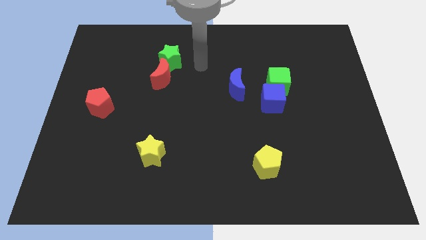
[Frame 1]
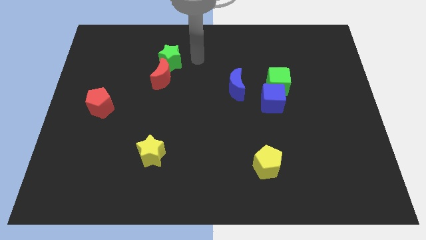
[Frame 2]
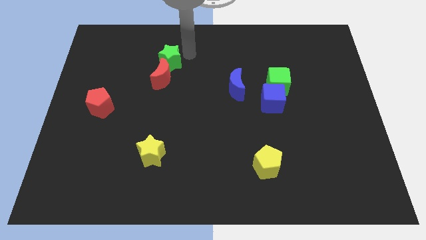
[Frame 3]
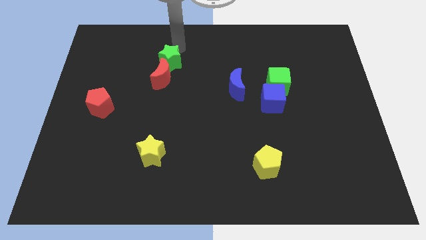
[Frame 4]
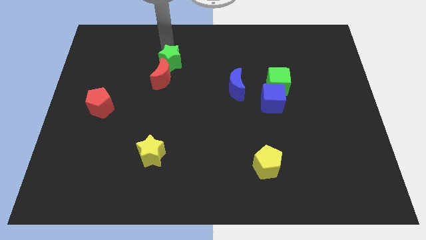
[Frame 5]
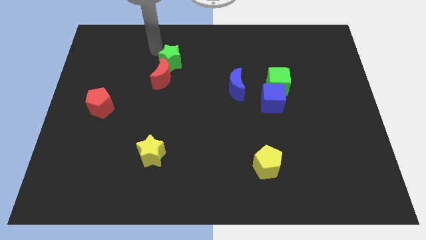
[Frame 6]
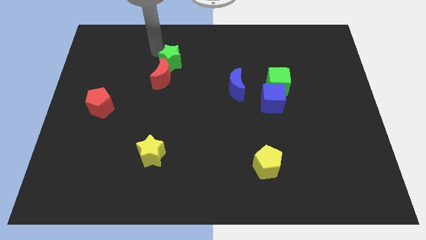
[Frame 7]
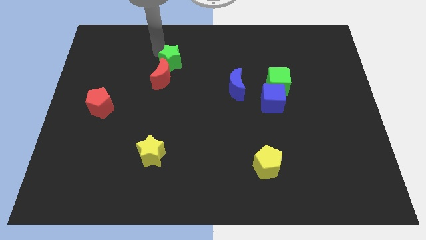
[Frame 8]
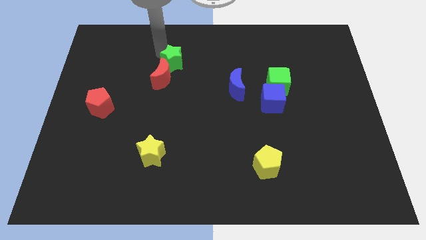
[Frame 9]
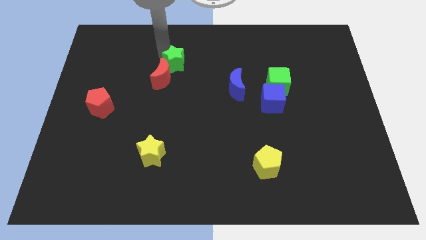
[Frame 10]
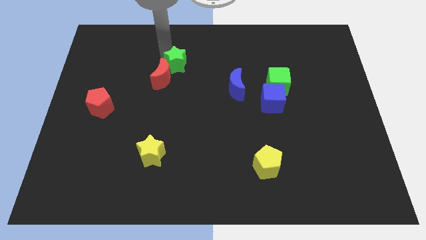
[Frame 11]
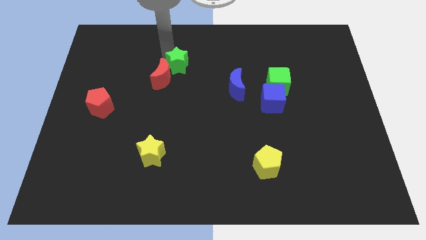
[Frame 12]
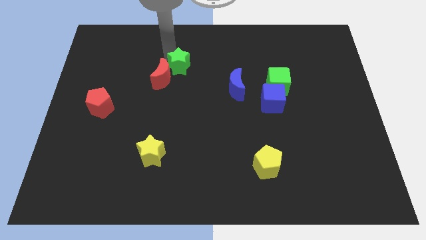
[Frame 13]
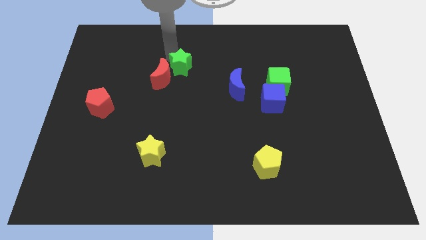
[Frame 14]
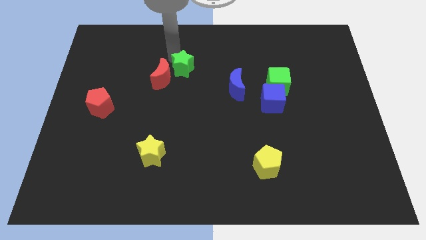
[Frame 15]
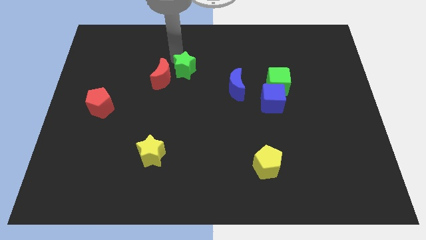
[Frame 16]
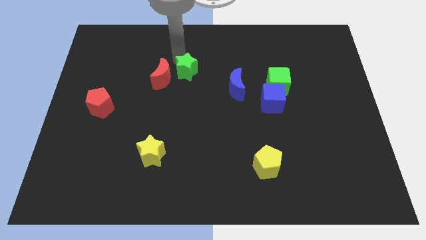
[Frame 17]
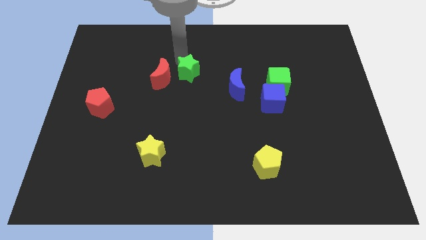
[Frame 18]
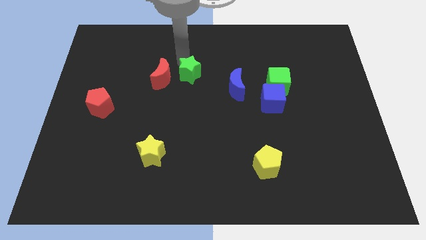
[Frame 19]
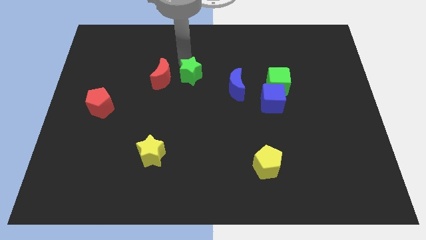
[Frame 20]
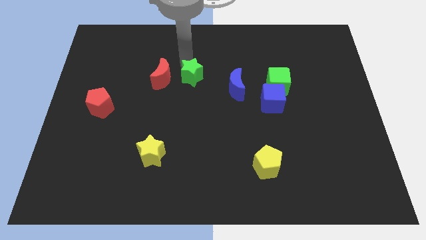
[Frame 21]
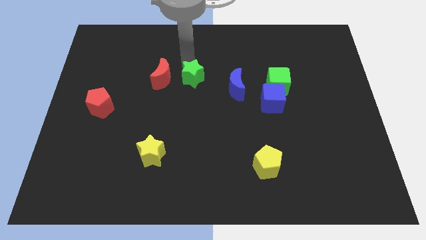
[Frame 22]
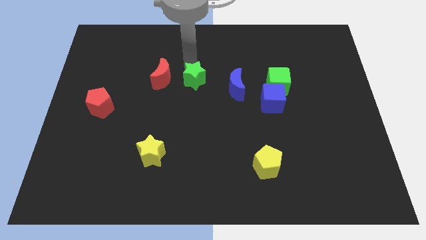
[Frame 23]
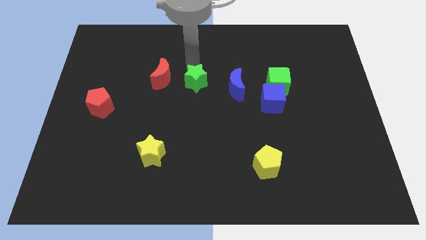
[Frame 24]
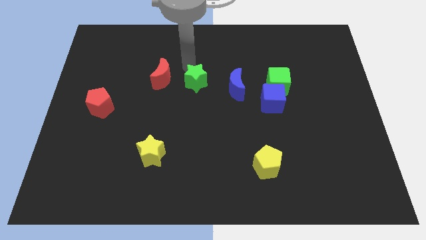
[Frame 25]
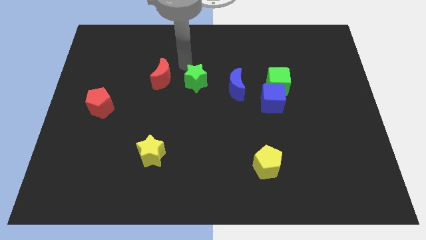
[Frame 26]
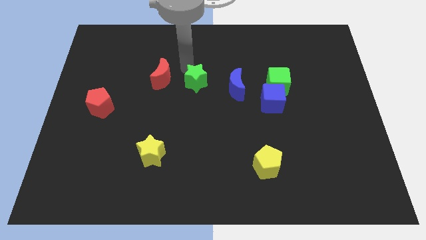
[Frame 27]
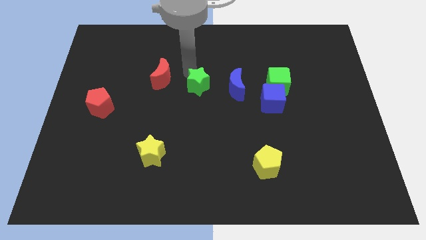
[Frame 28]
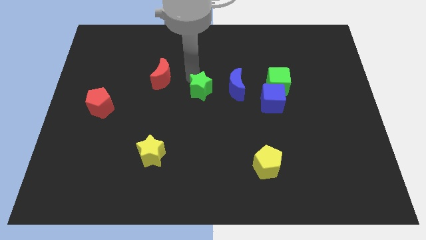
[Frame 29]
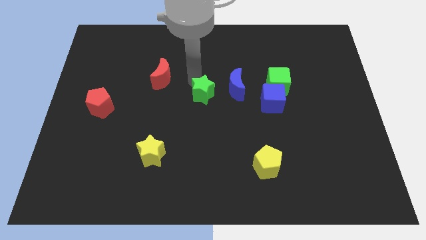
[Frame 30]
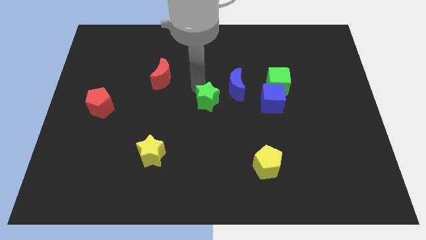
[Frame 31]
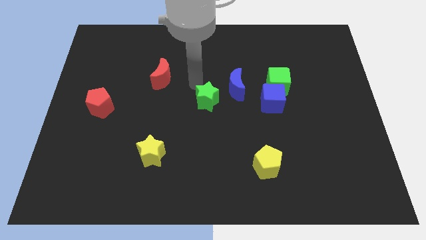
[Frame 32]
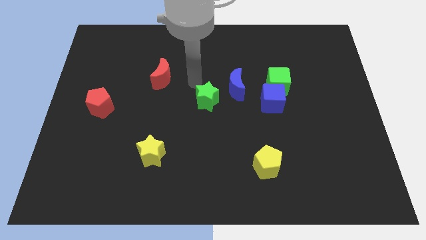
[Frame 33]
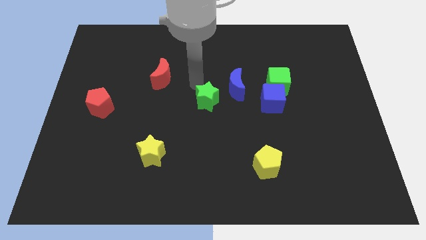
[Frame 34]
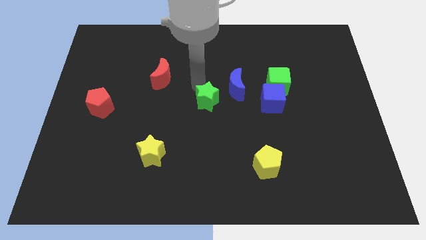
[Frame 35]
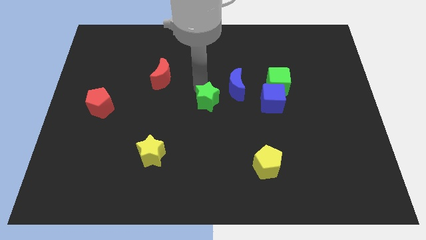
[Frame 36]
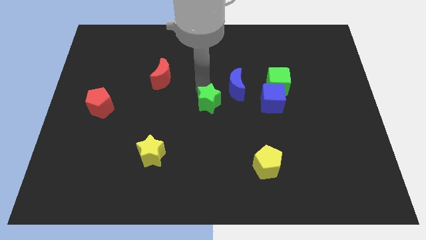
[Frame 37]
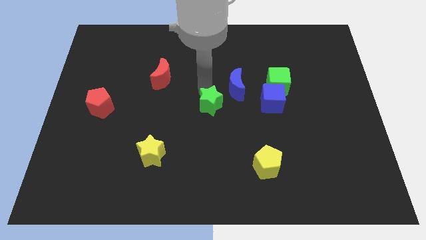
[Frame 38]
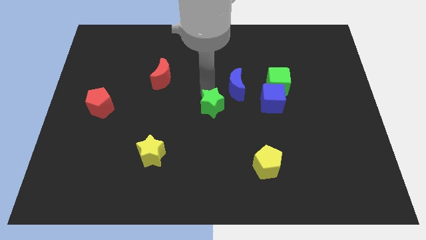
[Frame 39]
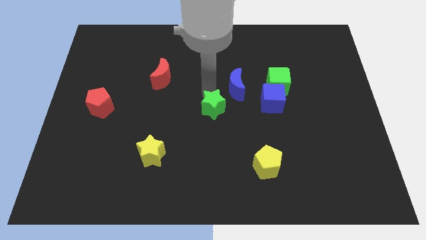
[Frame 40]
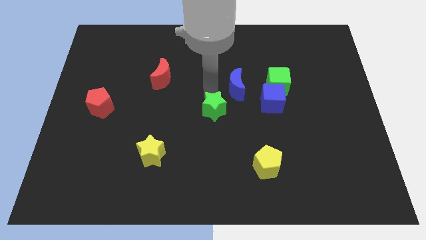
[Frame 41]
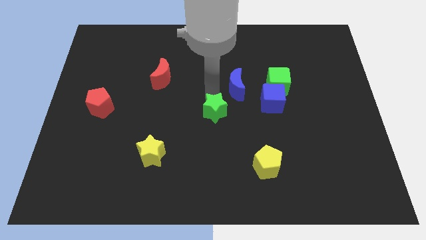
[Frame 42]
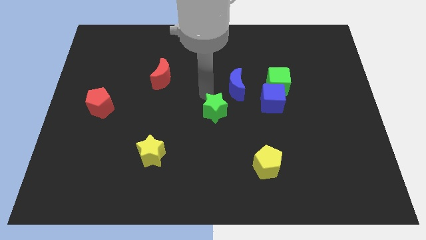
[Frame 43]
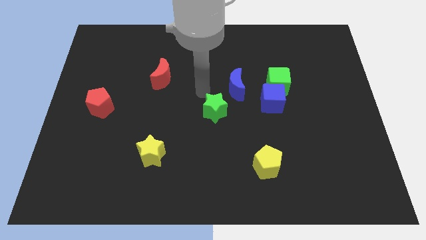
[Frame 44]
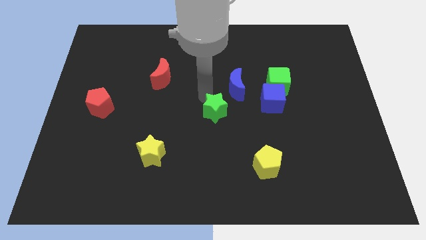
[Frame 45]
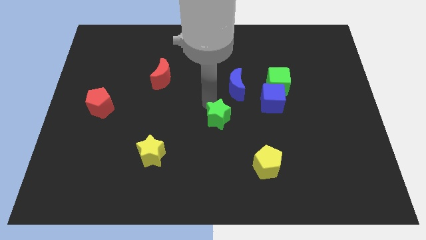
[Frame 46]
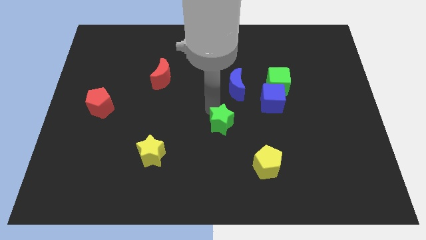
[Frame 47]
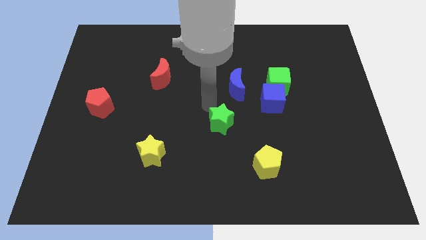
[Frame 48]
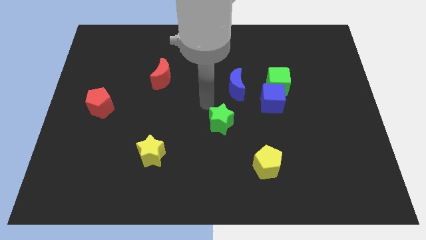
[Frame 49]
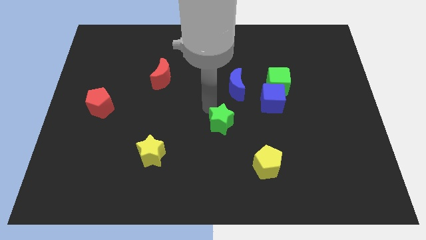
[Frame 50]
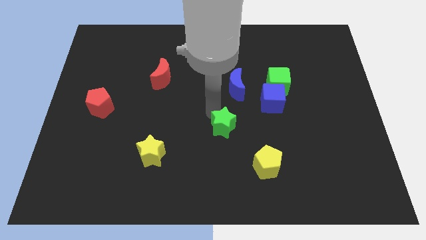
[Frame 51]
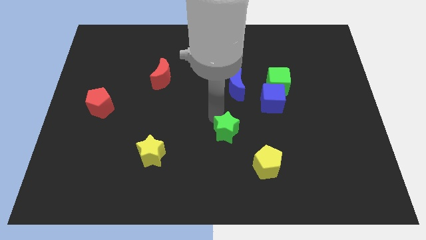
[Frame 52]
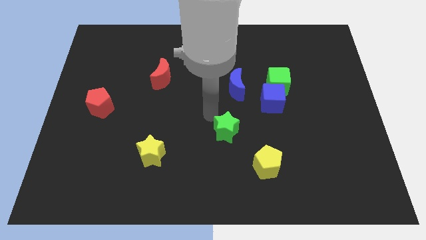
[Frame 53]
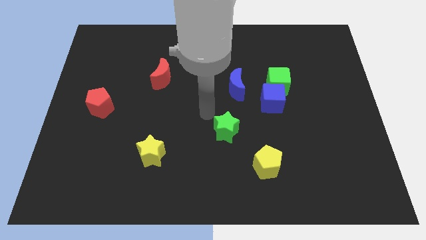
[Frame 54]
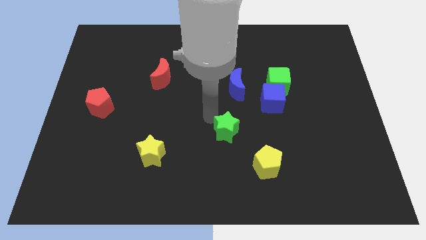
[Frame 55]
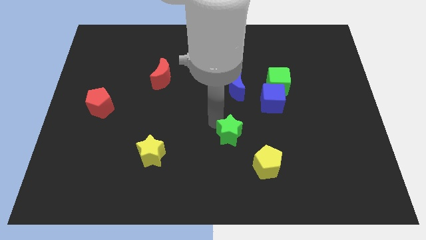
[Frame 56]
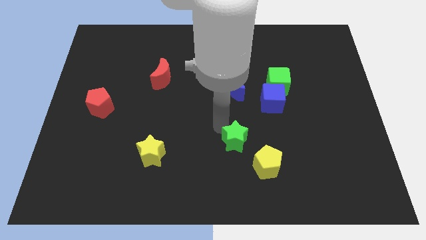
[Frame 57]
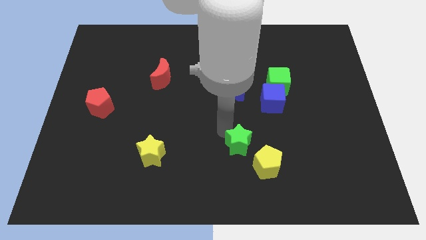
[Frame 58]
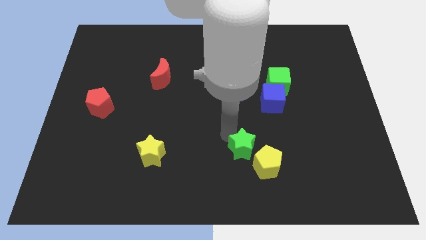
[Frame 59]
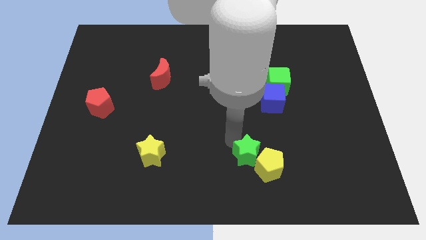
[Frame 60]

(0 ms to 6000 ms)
slide the green star to the yellow pentagon

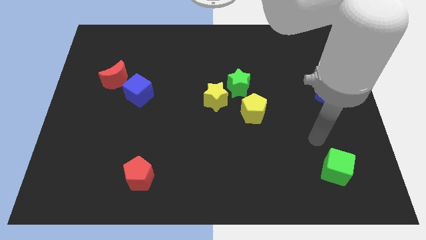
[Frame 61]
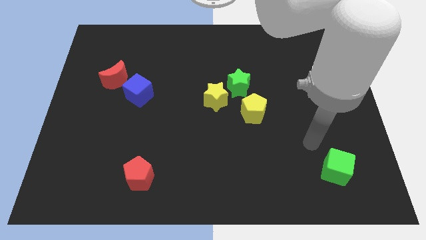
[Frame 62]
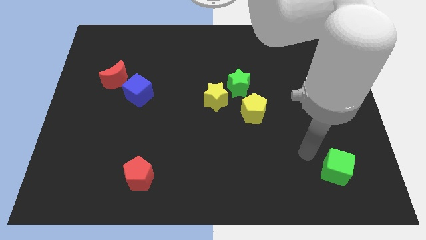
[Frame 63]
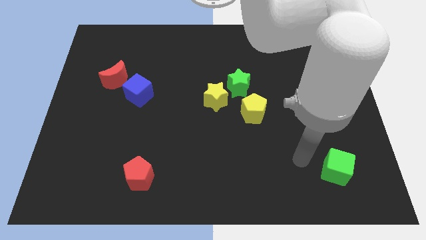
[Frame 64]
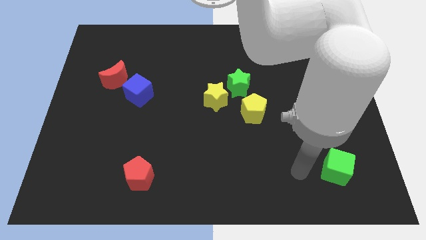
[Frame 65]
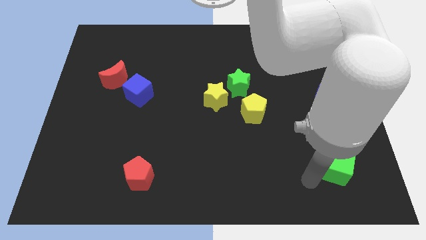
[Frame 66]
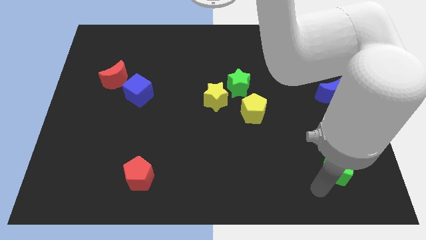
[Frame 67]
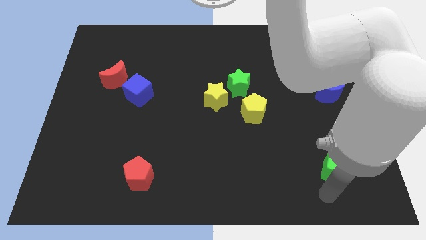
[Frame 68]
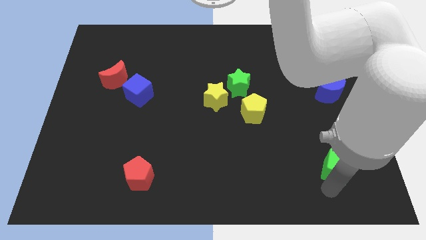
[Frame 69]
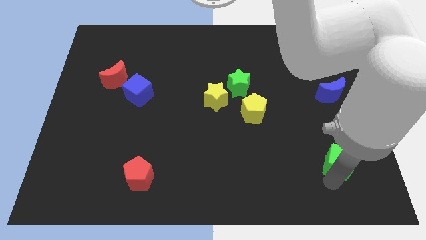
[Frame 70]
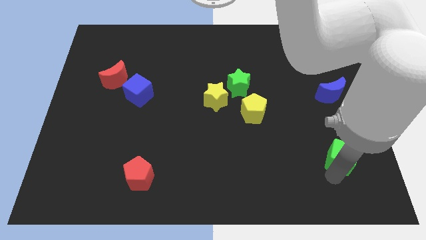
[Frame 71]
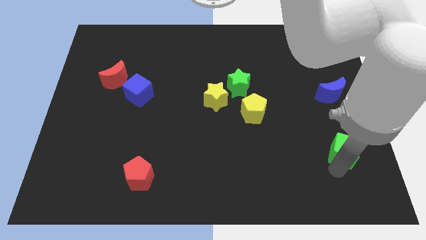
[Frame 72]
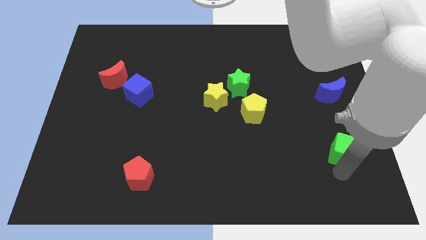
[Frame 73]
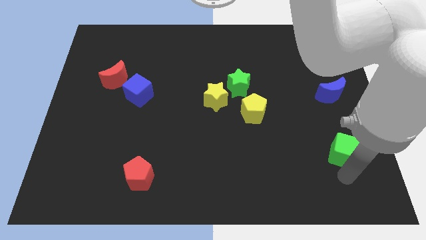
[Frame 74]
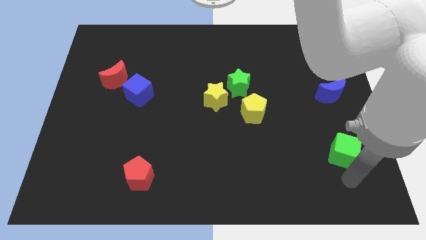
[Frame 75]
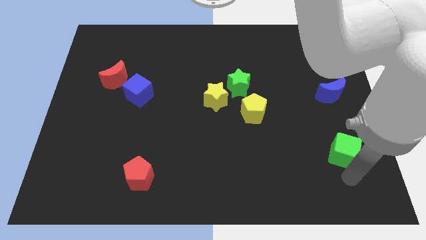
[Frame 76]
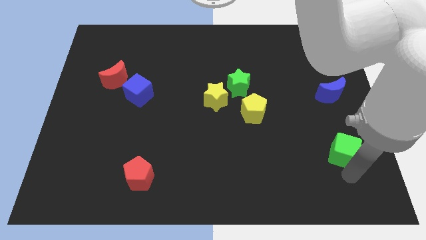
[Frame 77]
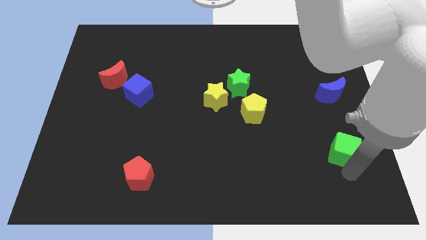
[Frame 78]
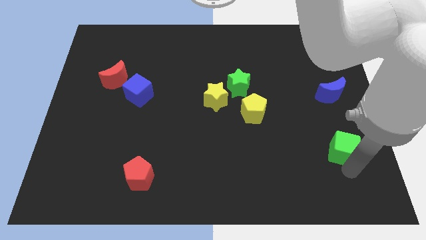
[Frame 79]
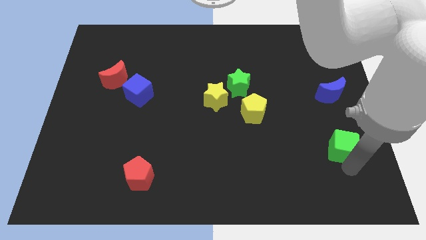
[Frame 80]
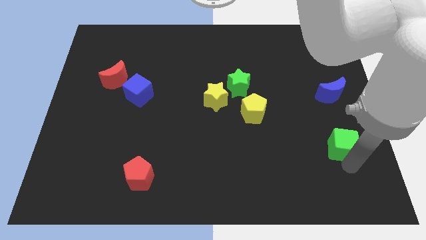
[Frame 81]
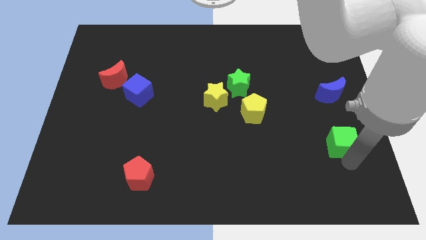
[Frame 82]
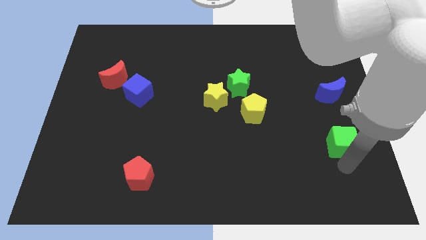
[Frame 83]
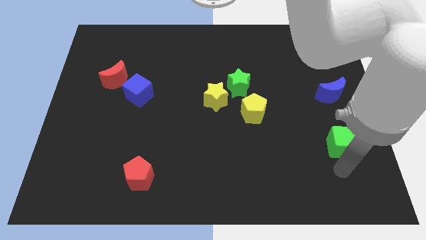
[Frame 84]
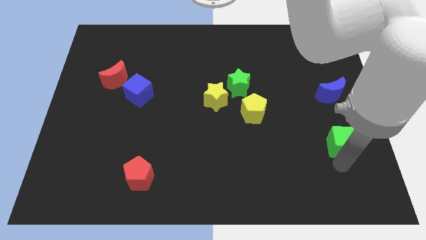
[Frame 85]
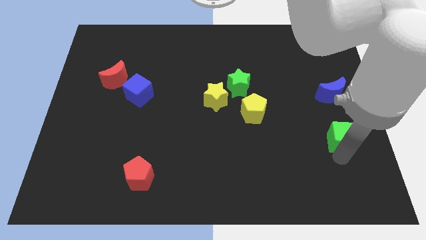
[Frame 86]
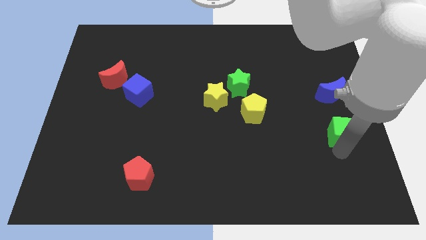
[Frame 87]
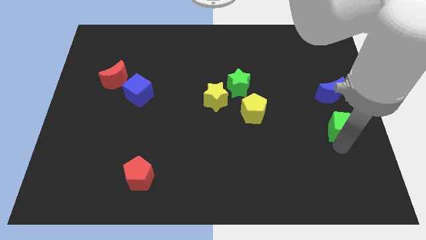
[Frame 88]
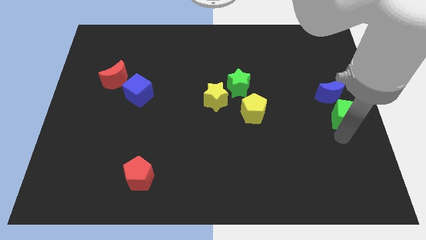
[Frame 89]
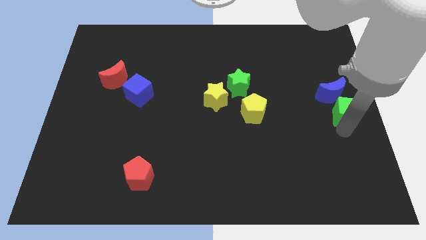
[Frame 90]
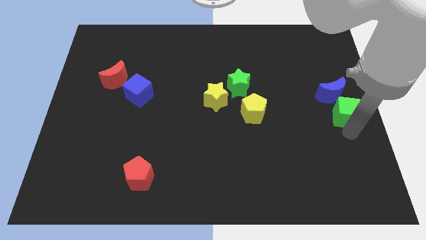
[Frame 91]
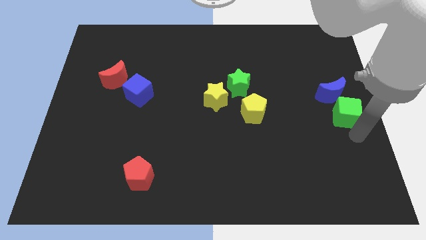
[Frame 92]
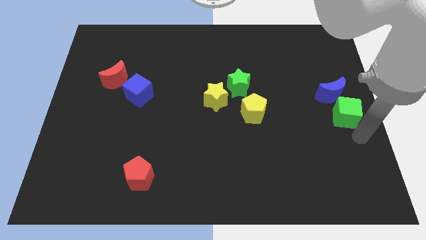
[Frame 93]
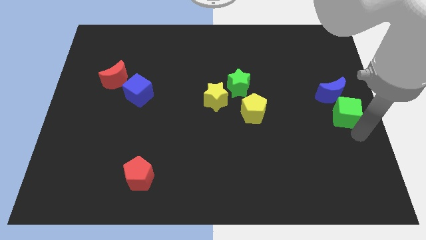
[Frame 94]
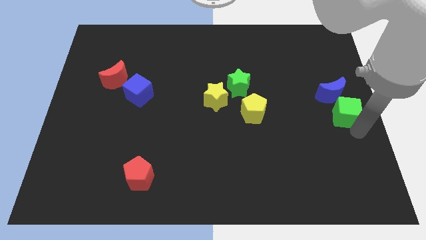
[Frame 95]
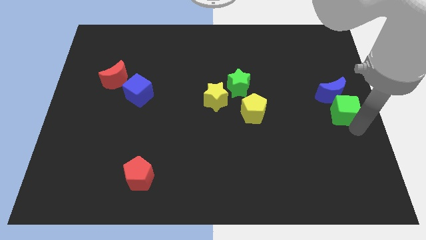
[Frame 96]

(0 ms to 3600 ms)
slide the green cube towards the blue moon
